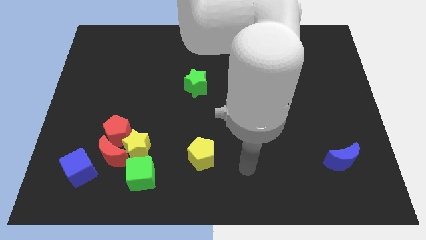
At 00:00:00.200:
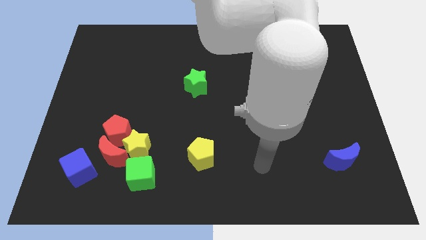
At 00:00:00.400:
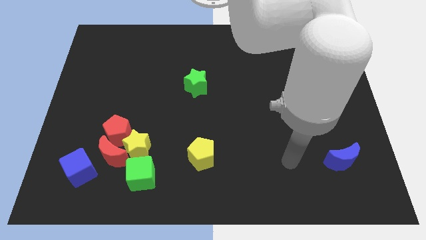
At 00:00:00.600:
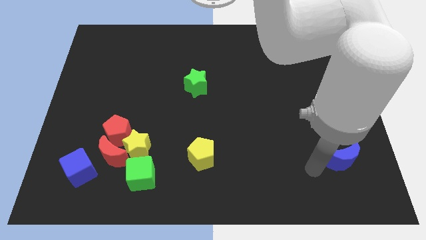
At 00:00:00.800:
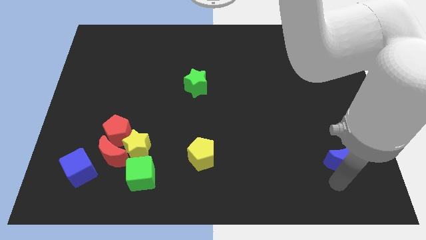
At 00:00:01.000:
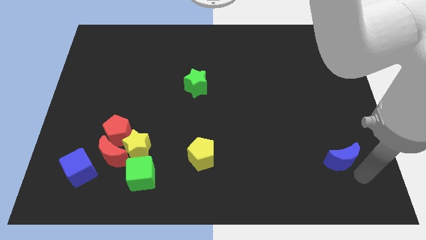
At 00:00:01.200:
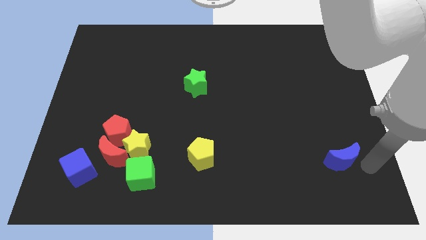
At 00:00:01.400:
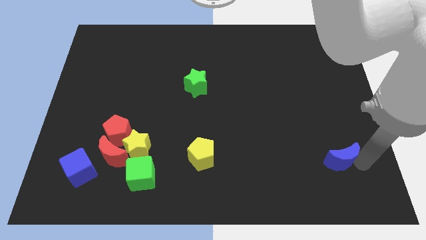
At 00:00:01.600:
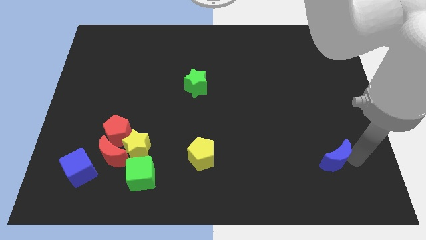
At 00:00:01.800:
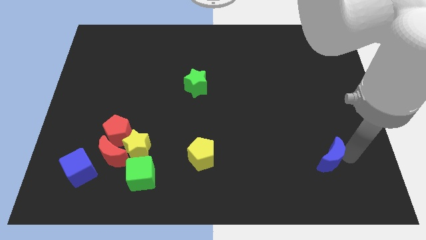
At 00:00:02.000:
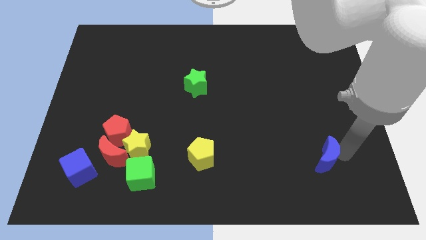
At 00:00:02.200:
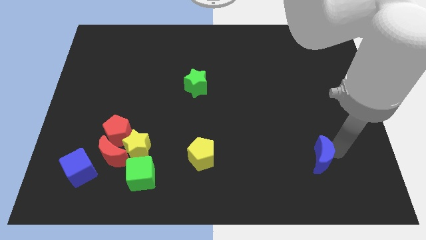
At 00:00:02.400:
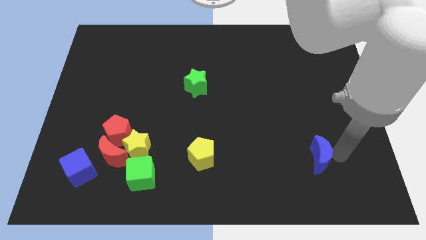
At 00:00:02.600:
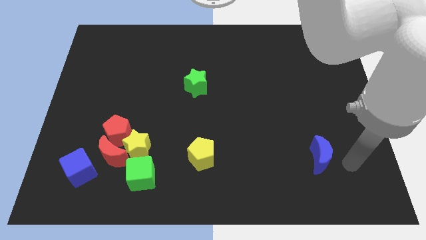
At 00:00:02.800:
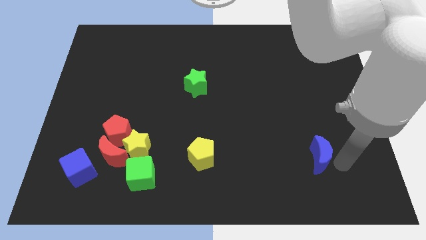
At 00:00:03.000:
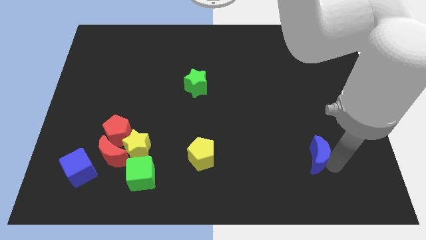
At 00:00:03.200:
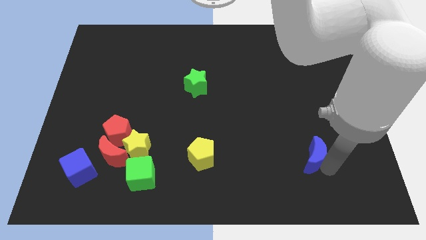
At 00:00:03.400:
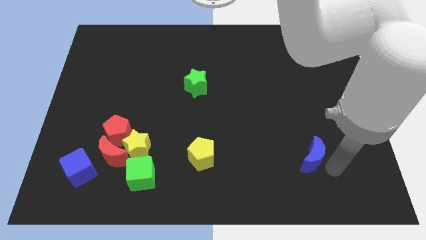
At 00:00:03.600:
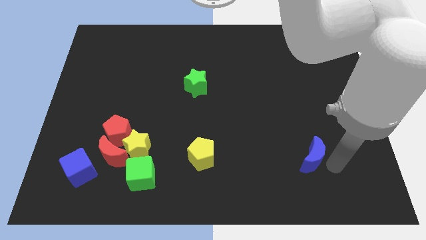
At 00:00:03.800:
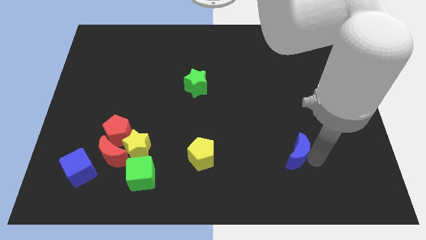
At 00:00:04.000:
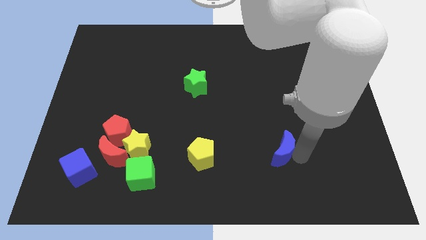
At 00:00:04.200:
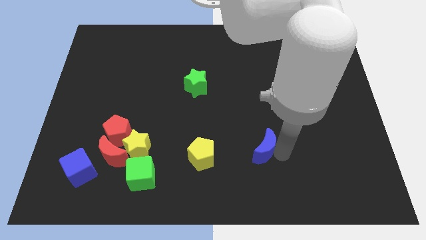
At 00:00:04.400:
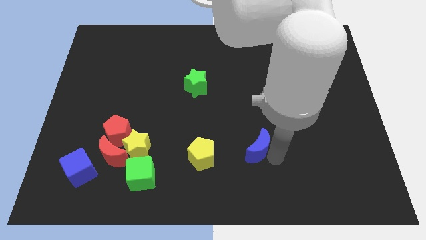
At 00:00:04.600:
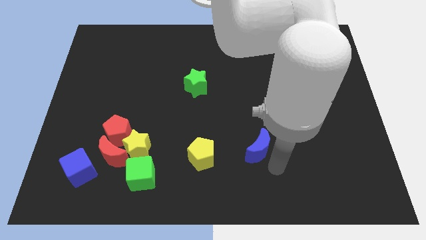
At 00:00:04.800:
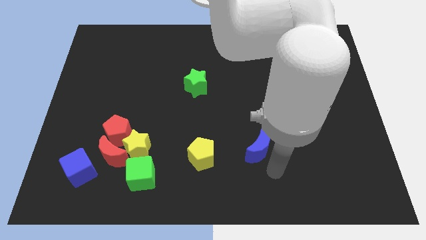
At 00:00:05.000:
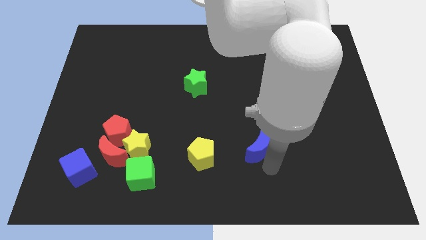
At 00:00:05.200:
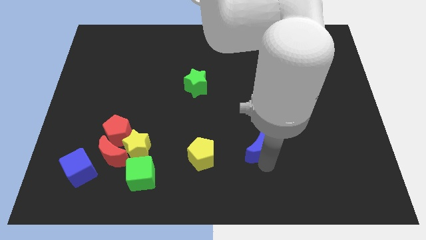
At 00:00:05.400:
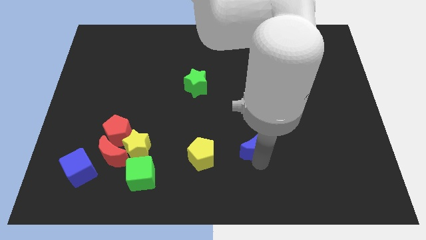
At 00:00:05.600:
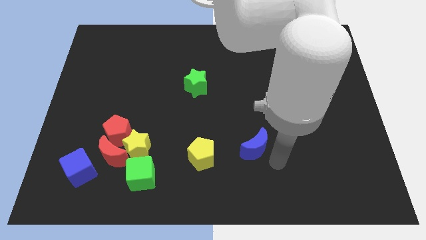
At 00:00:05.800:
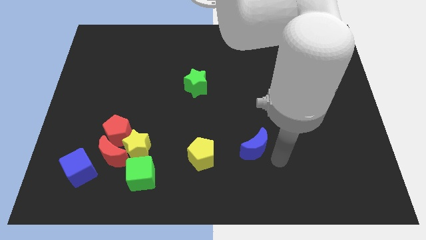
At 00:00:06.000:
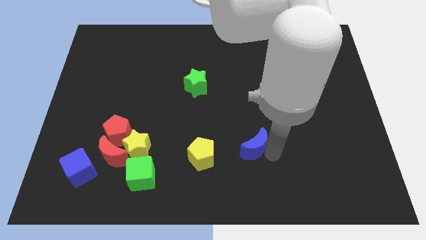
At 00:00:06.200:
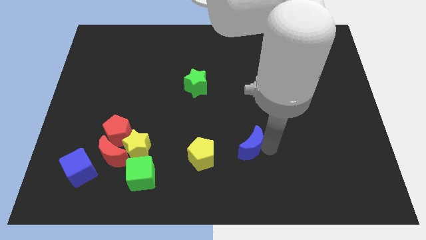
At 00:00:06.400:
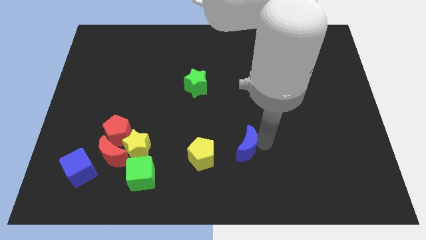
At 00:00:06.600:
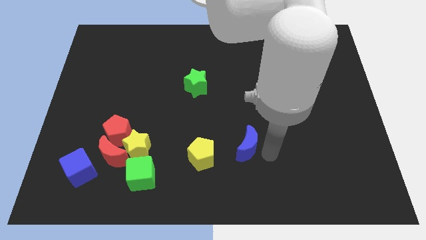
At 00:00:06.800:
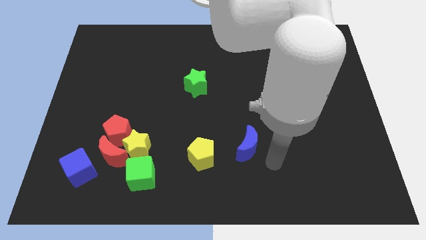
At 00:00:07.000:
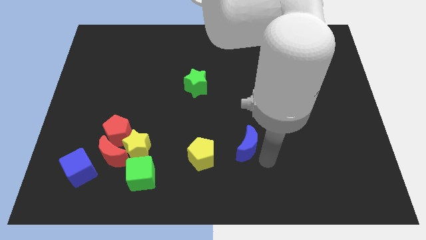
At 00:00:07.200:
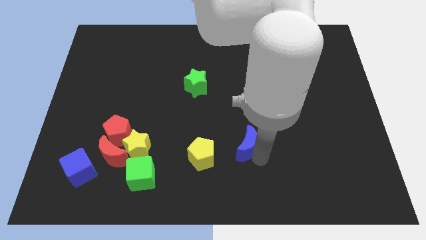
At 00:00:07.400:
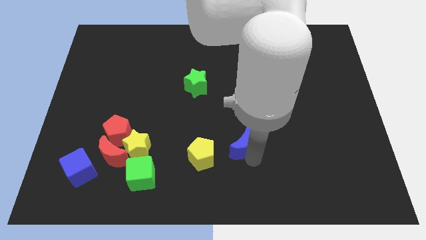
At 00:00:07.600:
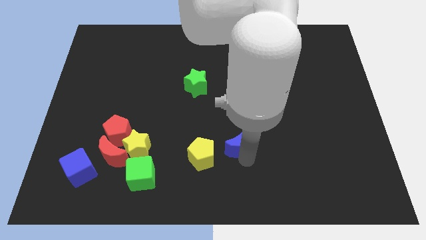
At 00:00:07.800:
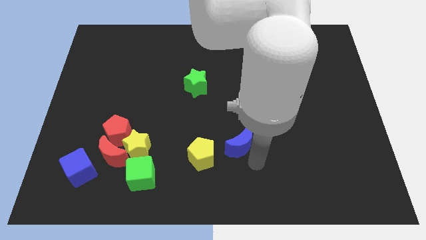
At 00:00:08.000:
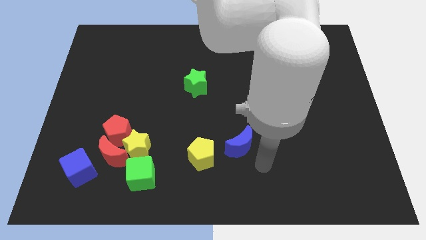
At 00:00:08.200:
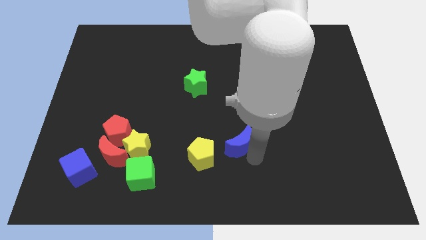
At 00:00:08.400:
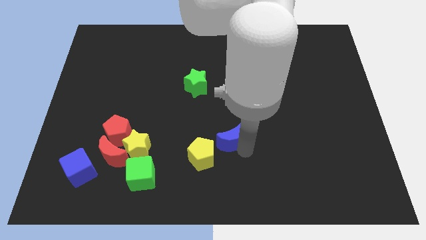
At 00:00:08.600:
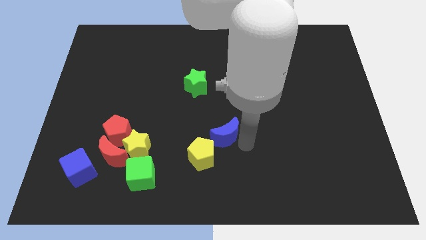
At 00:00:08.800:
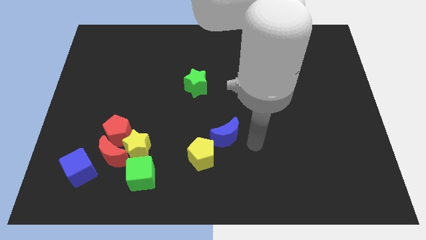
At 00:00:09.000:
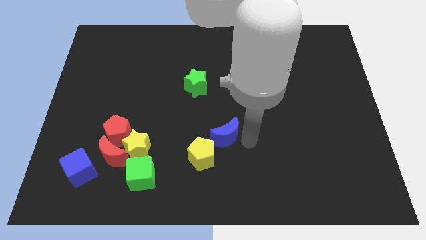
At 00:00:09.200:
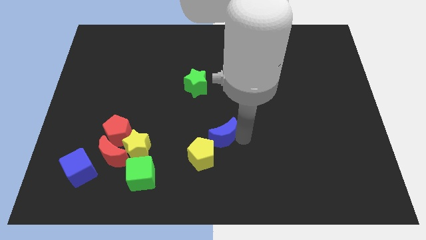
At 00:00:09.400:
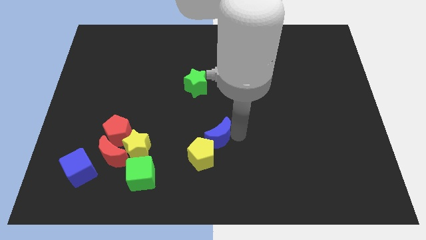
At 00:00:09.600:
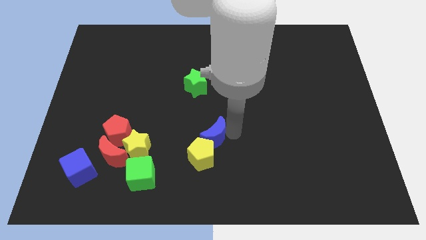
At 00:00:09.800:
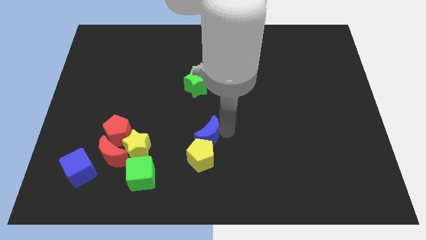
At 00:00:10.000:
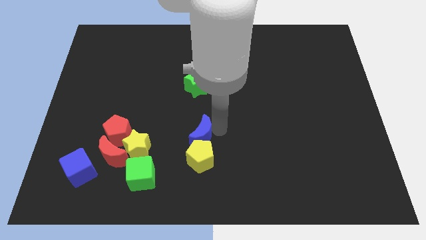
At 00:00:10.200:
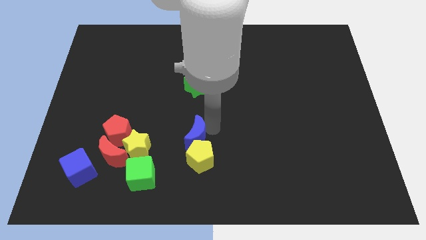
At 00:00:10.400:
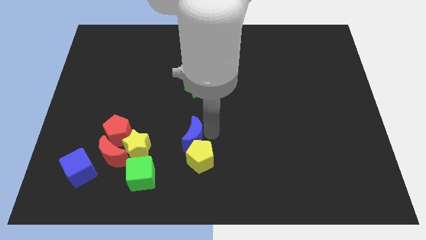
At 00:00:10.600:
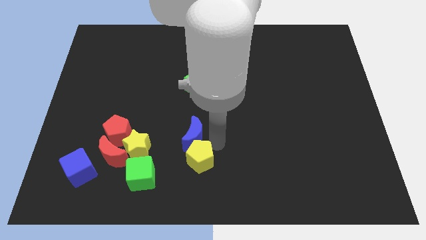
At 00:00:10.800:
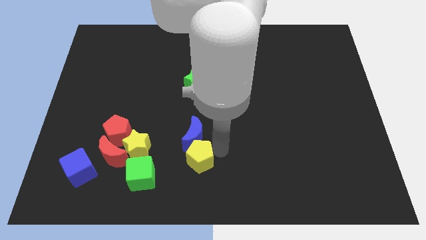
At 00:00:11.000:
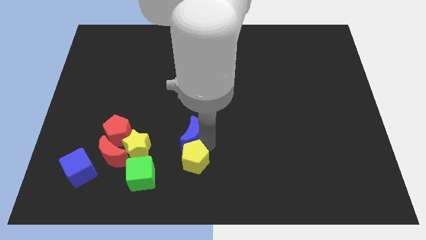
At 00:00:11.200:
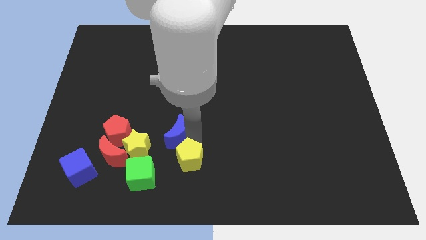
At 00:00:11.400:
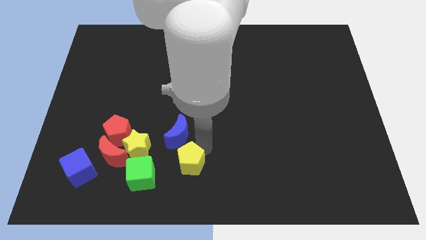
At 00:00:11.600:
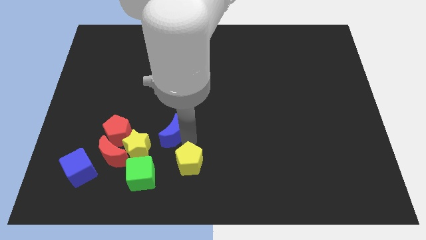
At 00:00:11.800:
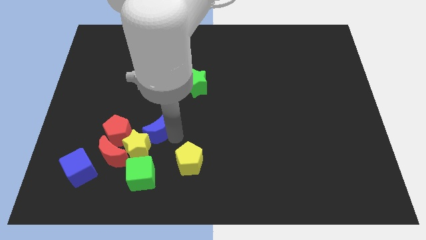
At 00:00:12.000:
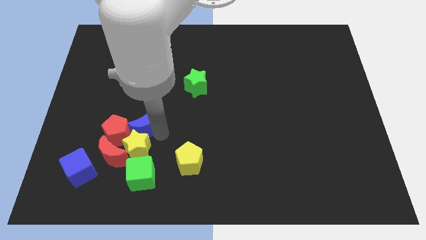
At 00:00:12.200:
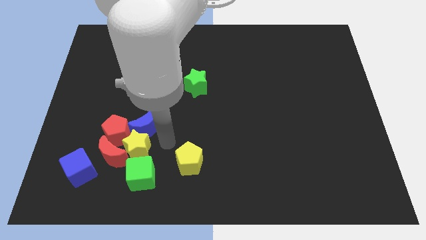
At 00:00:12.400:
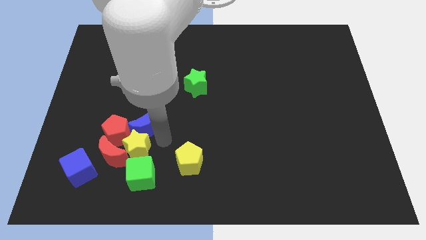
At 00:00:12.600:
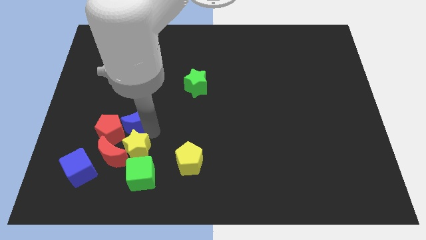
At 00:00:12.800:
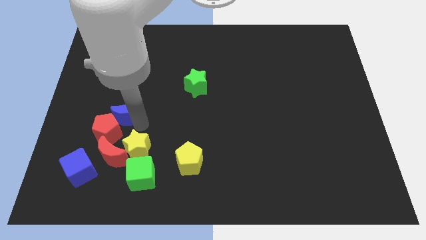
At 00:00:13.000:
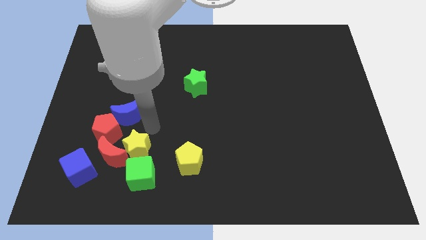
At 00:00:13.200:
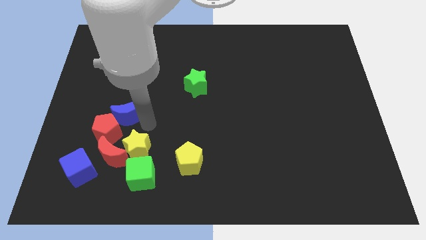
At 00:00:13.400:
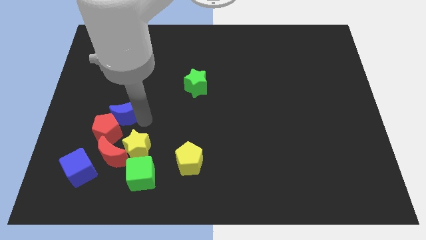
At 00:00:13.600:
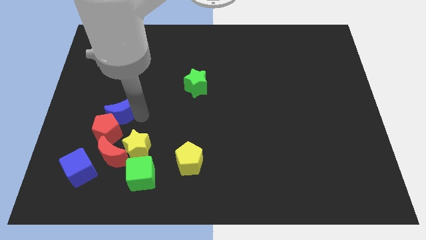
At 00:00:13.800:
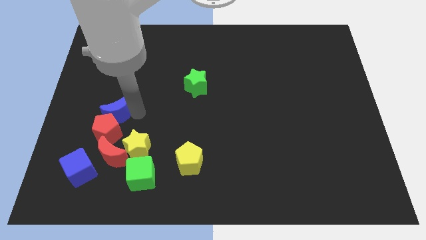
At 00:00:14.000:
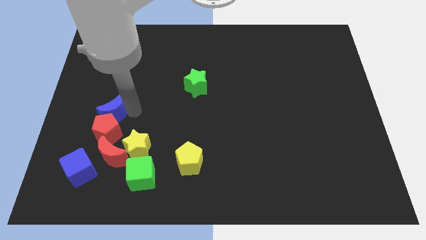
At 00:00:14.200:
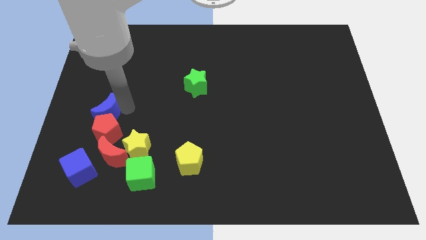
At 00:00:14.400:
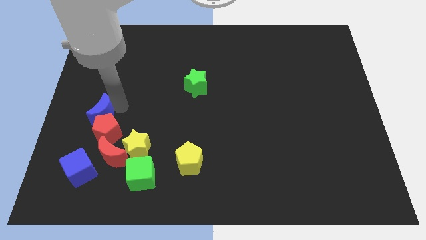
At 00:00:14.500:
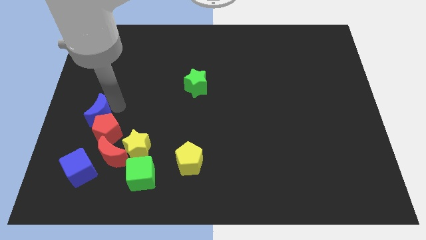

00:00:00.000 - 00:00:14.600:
slide the blue moon to the left side of the board
